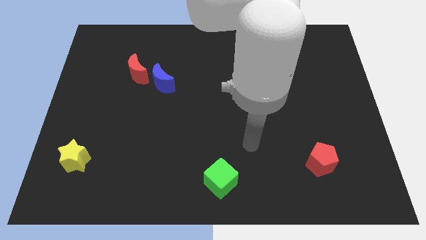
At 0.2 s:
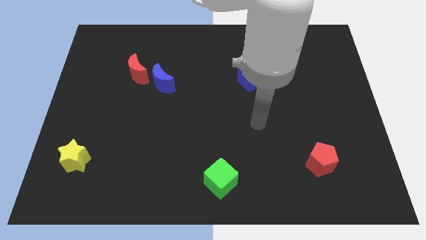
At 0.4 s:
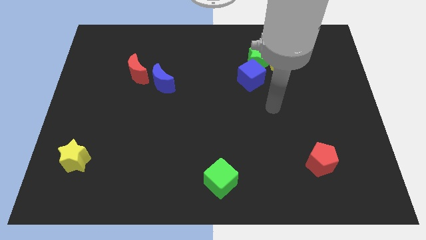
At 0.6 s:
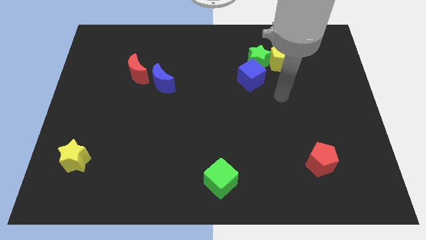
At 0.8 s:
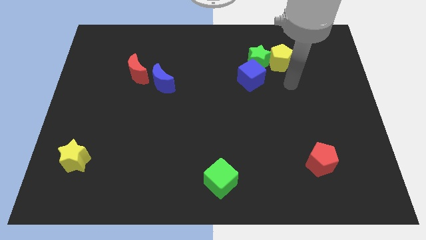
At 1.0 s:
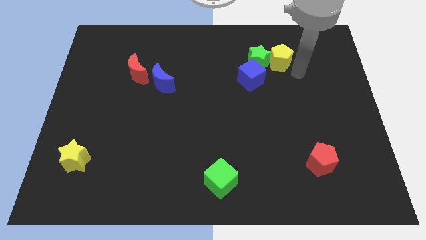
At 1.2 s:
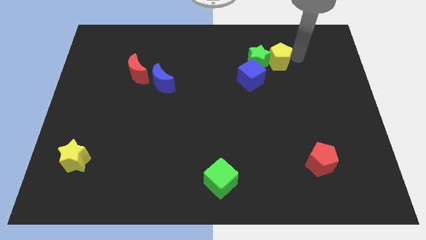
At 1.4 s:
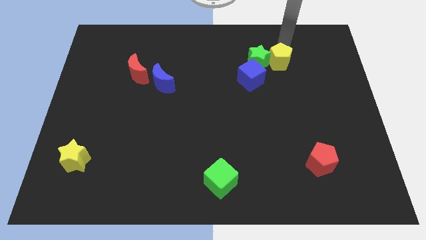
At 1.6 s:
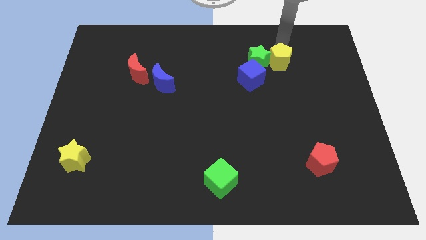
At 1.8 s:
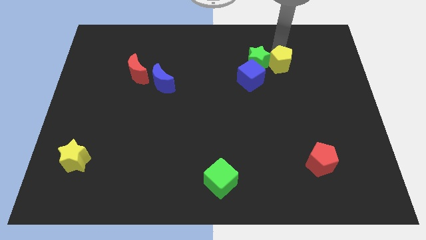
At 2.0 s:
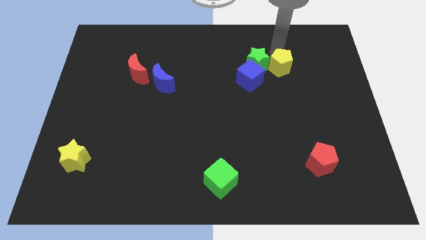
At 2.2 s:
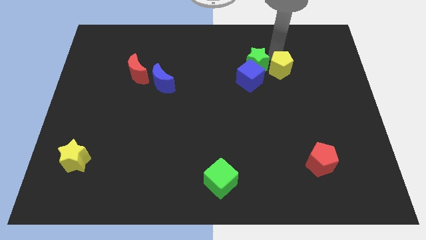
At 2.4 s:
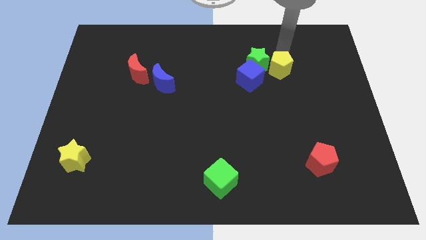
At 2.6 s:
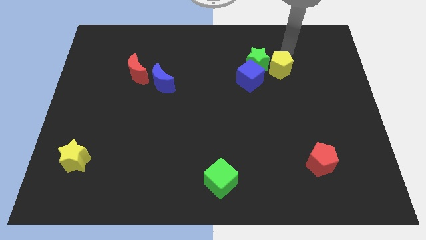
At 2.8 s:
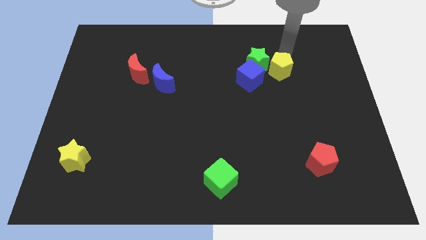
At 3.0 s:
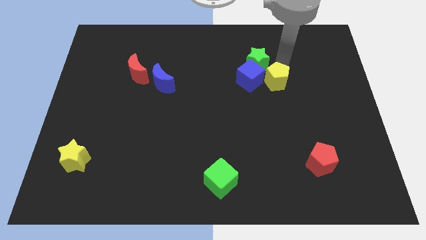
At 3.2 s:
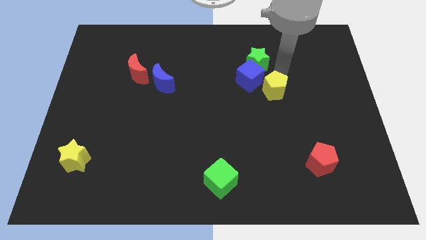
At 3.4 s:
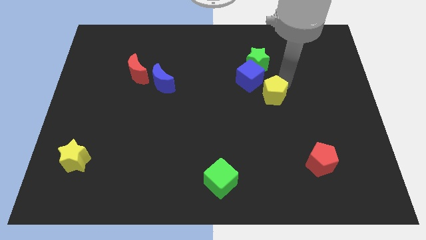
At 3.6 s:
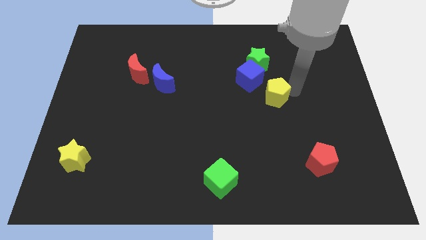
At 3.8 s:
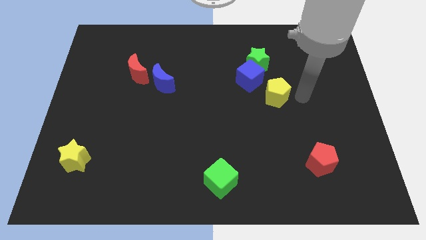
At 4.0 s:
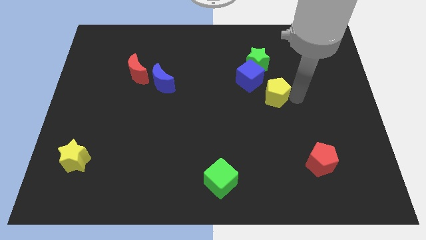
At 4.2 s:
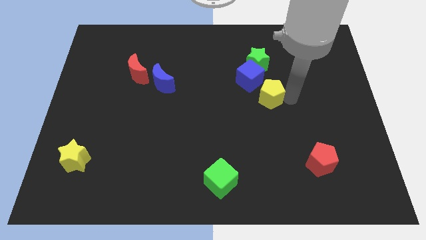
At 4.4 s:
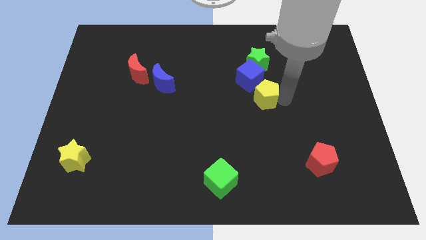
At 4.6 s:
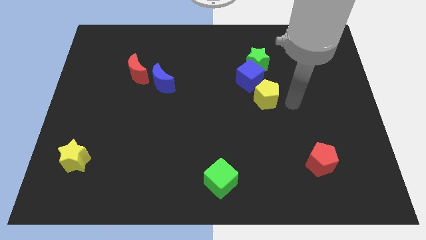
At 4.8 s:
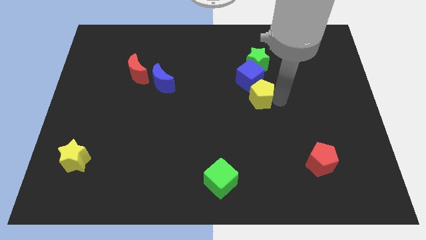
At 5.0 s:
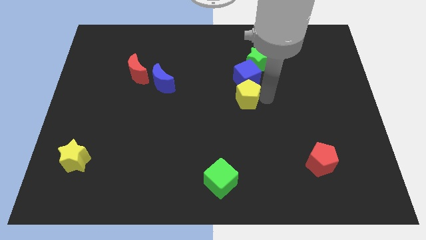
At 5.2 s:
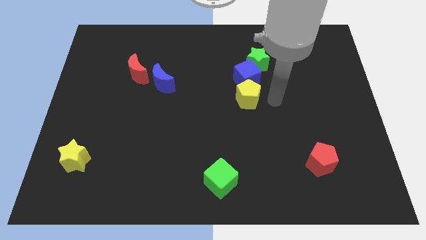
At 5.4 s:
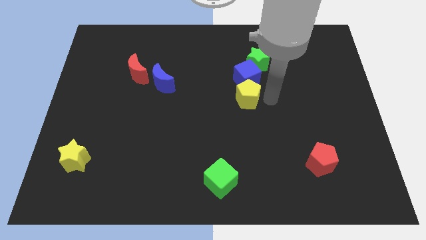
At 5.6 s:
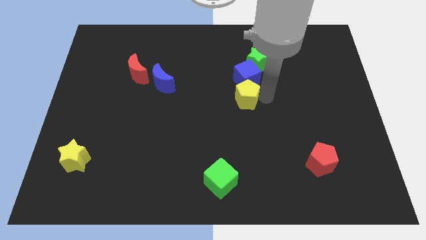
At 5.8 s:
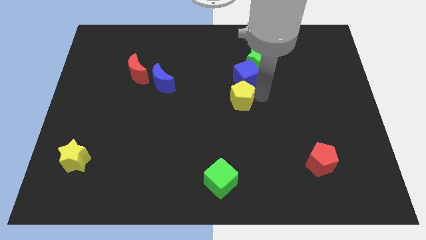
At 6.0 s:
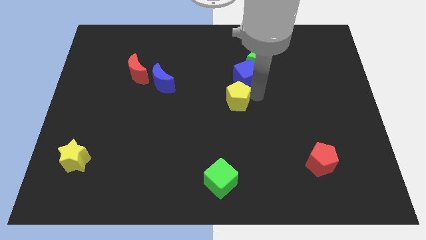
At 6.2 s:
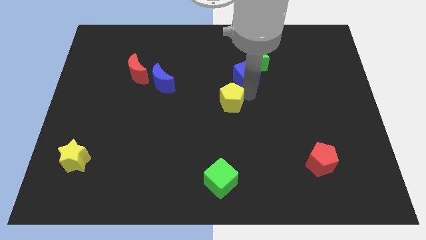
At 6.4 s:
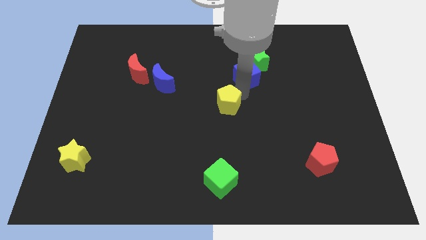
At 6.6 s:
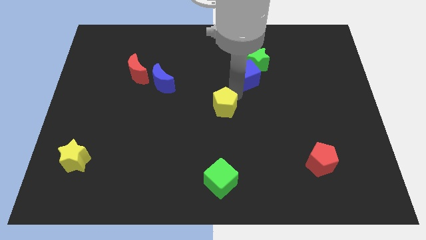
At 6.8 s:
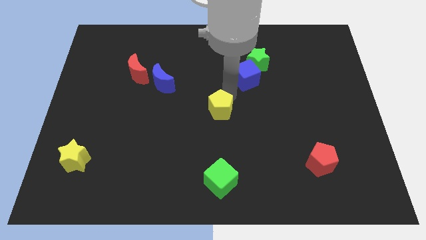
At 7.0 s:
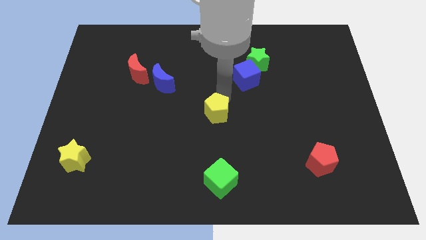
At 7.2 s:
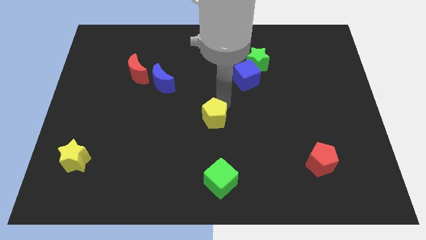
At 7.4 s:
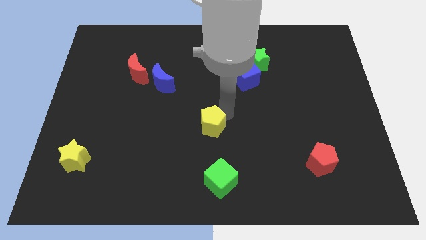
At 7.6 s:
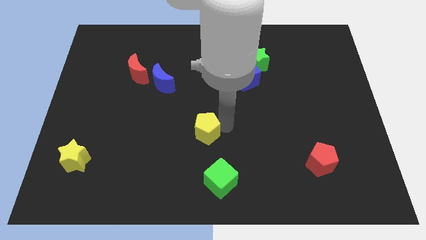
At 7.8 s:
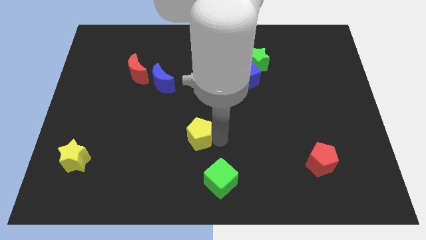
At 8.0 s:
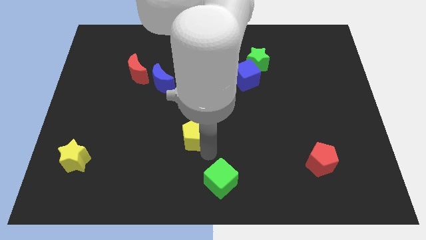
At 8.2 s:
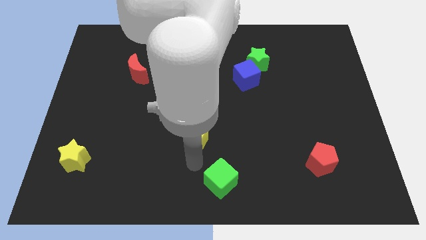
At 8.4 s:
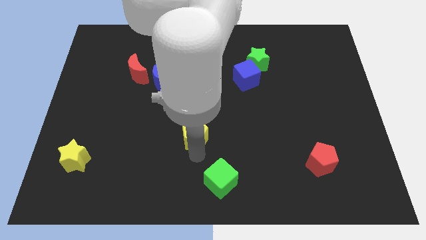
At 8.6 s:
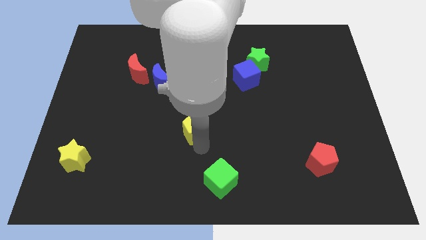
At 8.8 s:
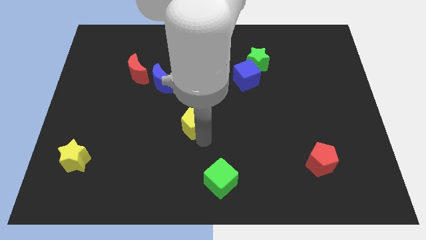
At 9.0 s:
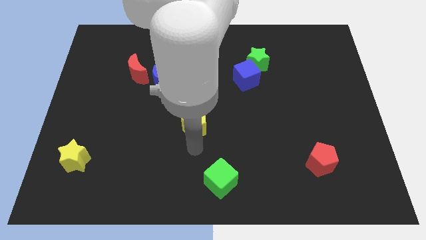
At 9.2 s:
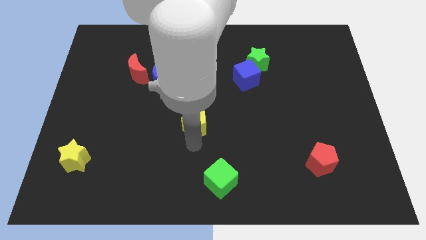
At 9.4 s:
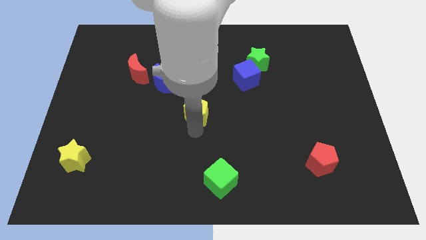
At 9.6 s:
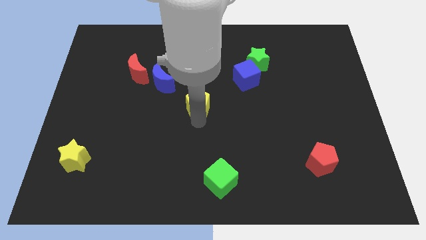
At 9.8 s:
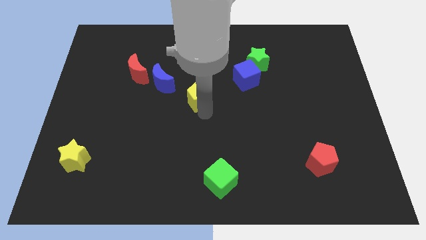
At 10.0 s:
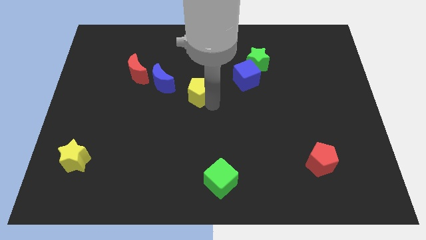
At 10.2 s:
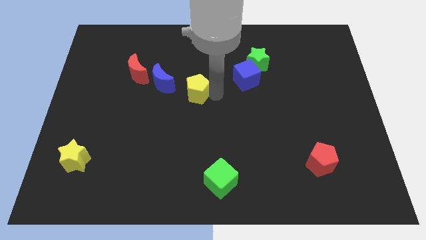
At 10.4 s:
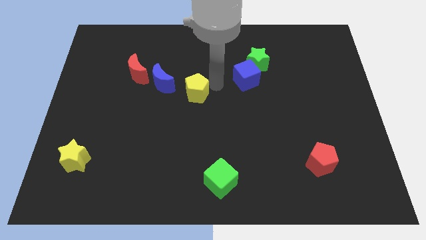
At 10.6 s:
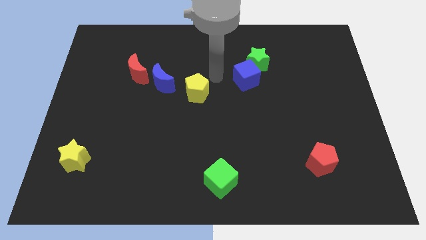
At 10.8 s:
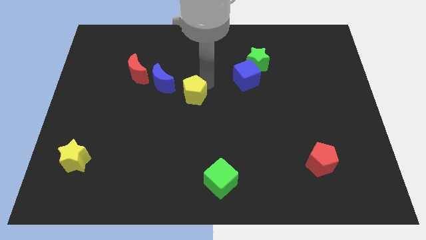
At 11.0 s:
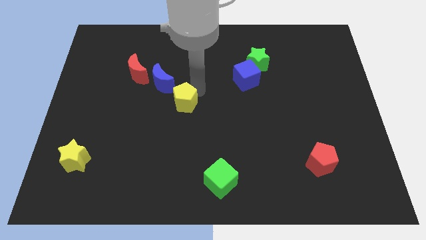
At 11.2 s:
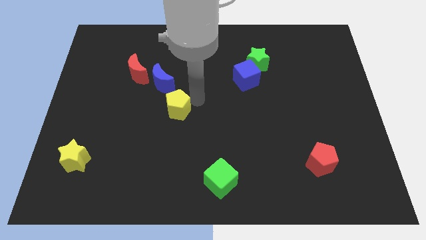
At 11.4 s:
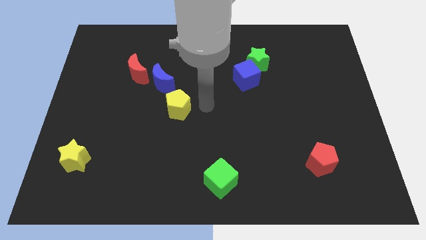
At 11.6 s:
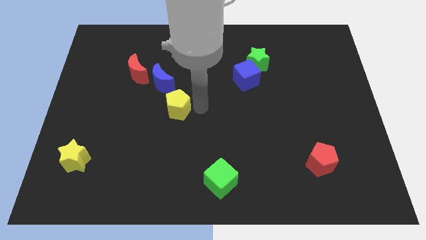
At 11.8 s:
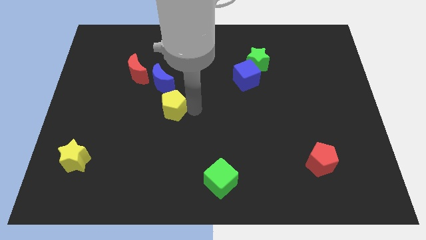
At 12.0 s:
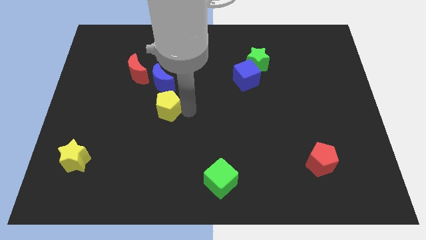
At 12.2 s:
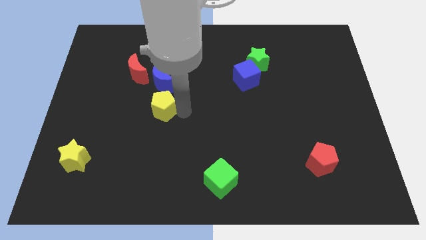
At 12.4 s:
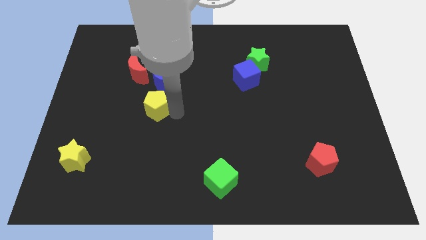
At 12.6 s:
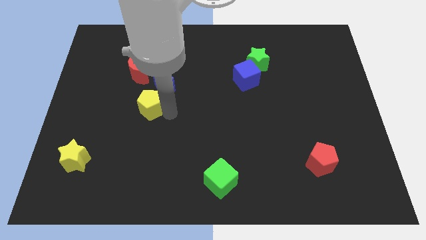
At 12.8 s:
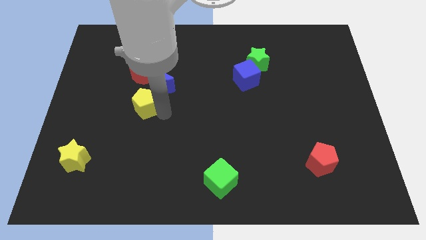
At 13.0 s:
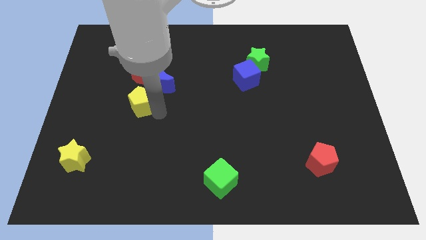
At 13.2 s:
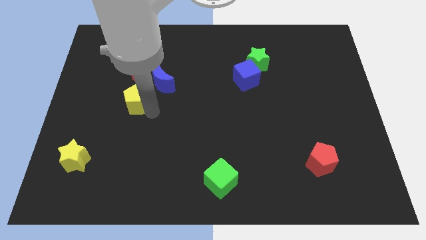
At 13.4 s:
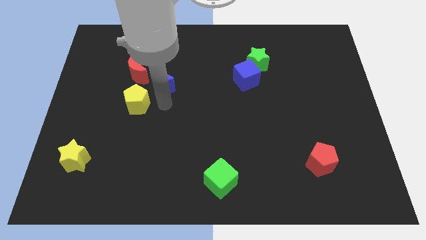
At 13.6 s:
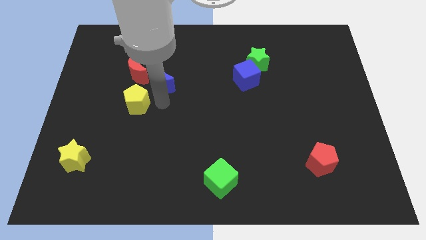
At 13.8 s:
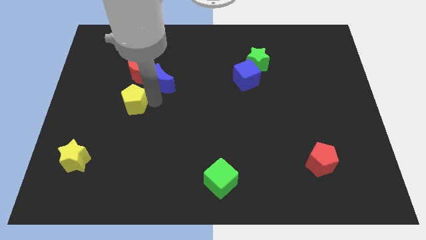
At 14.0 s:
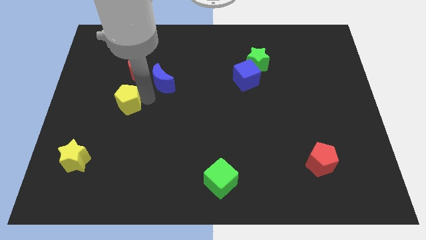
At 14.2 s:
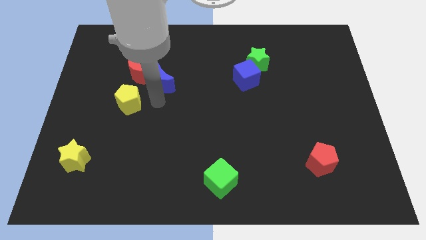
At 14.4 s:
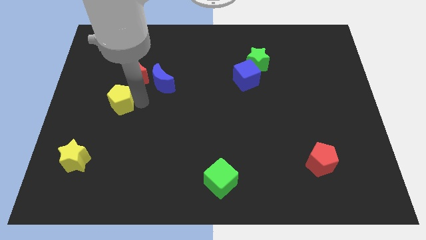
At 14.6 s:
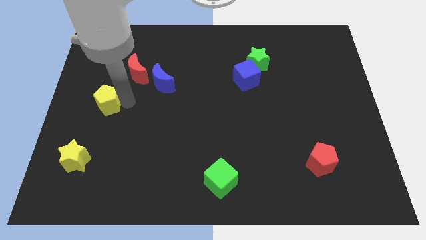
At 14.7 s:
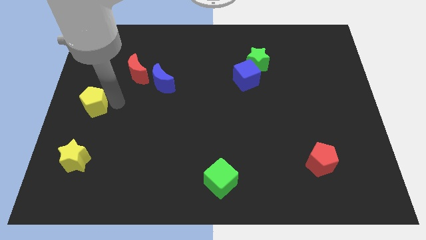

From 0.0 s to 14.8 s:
push the yellow pentagon to the center left
